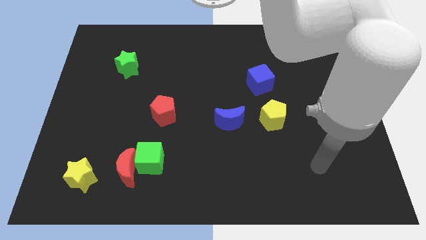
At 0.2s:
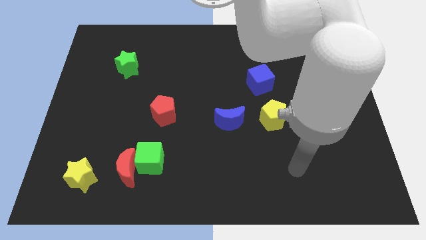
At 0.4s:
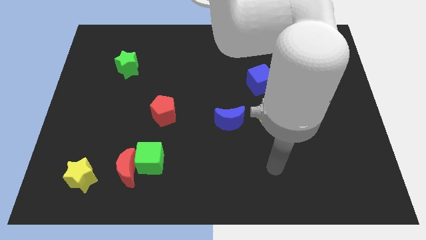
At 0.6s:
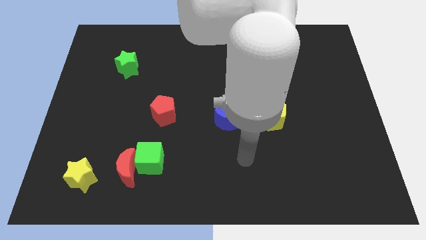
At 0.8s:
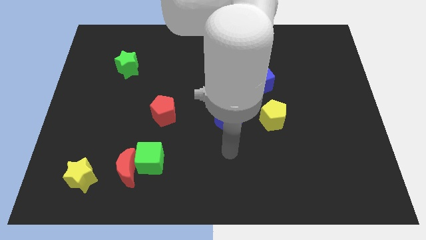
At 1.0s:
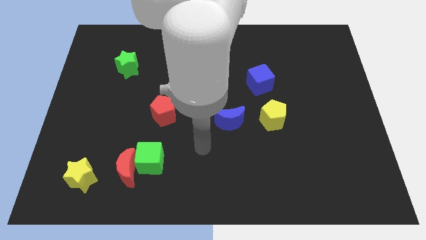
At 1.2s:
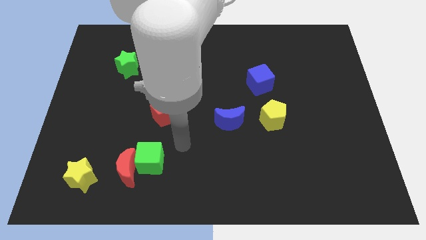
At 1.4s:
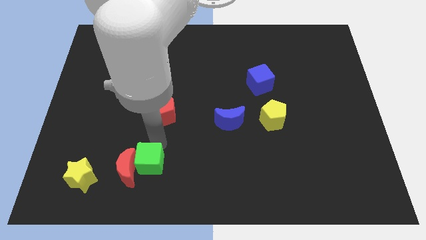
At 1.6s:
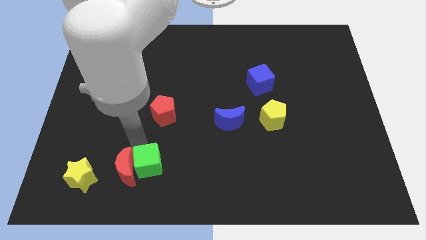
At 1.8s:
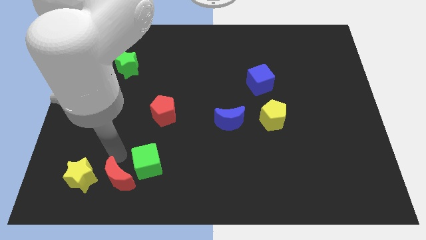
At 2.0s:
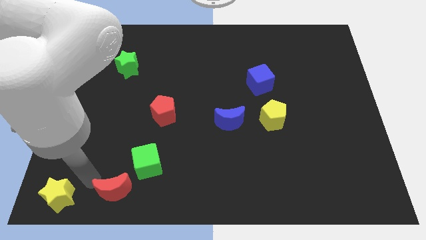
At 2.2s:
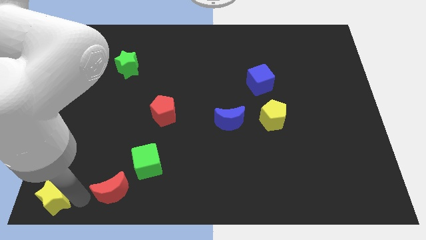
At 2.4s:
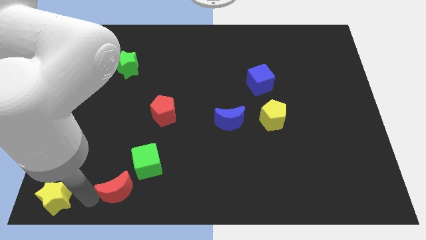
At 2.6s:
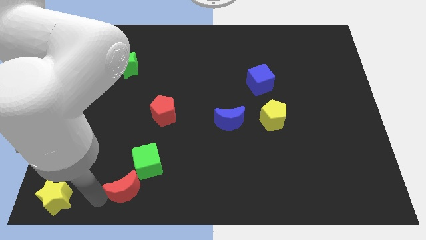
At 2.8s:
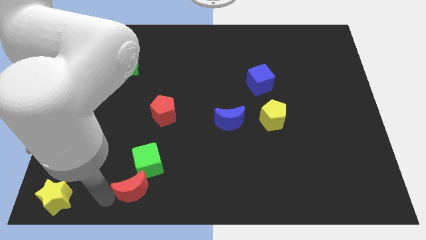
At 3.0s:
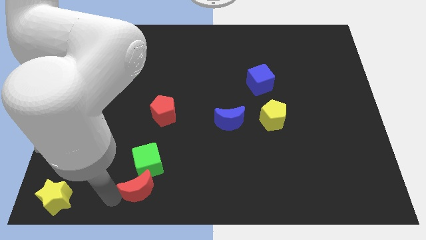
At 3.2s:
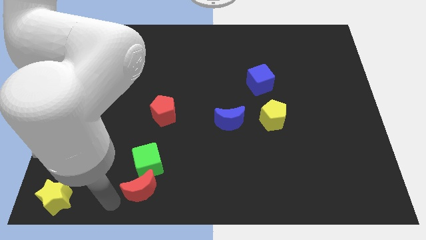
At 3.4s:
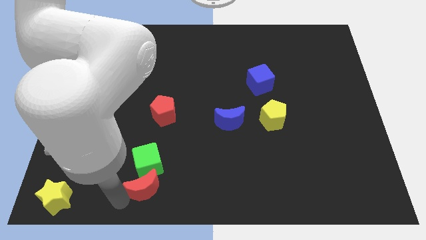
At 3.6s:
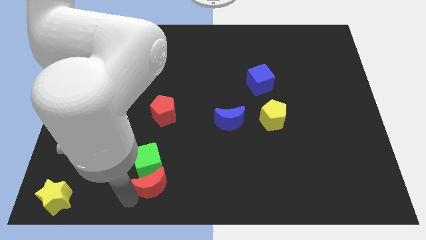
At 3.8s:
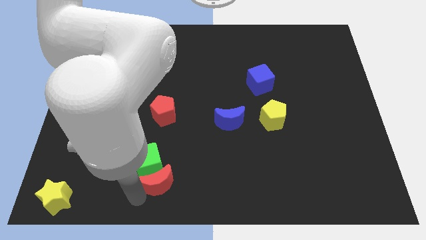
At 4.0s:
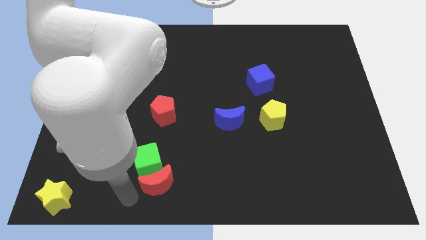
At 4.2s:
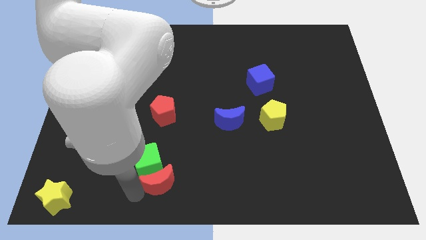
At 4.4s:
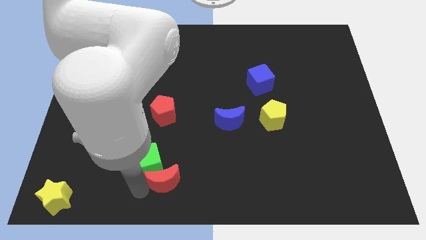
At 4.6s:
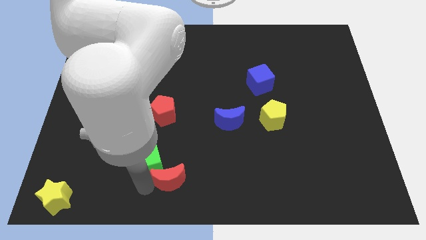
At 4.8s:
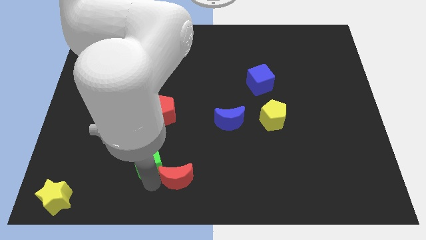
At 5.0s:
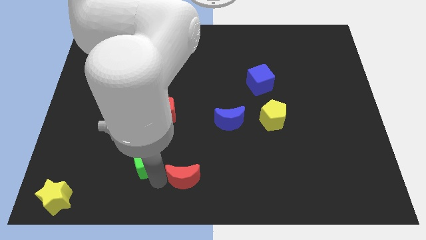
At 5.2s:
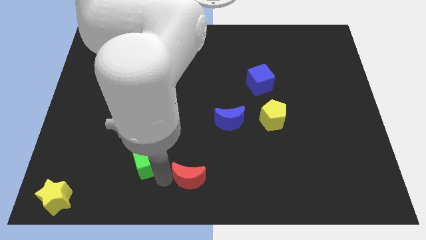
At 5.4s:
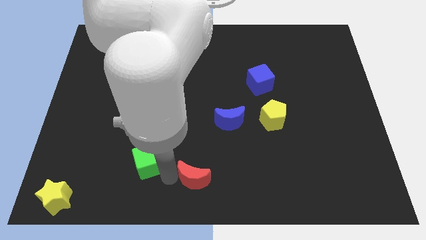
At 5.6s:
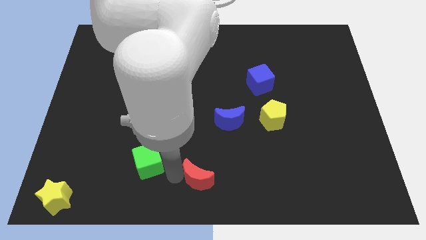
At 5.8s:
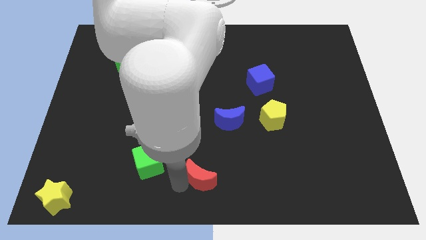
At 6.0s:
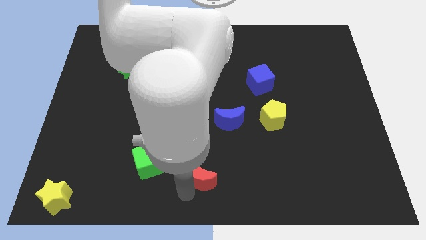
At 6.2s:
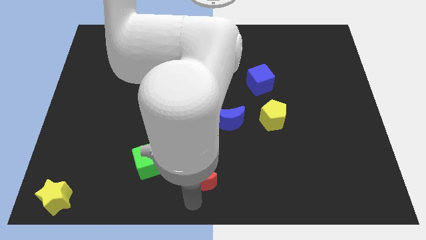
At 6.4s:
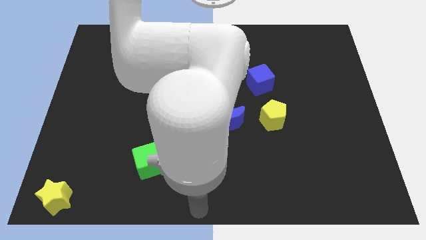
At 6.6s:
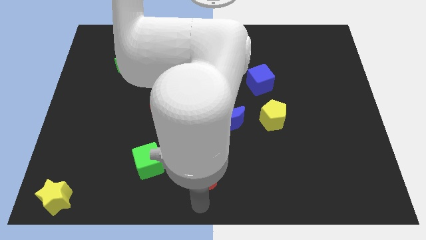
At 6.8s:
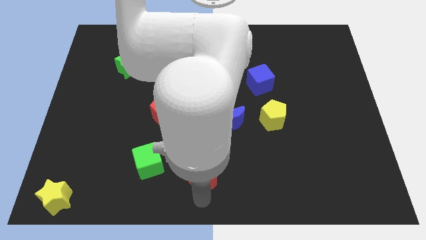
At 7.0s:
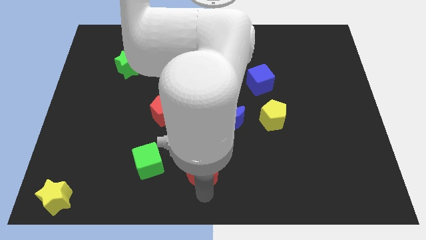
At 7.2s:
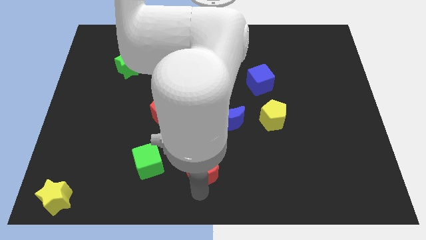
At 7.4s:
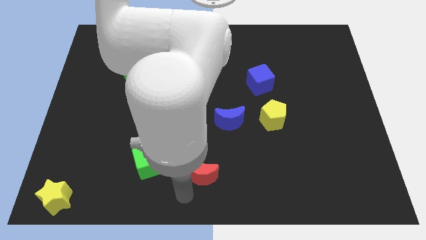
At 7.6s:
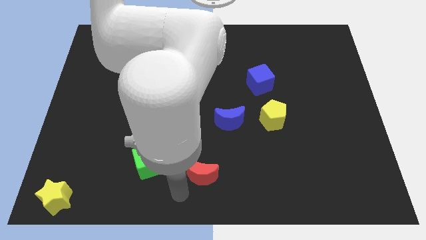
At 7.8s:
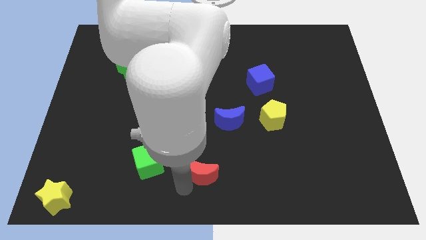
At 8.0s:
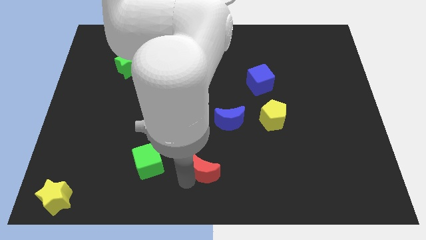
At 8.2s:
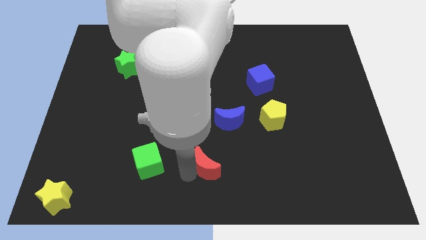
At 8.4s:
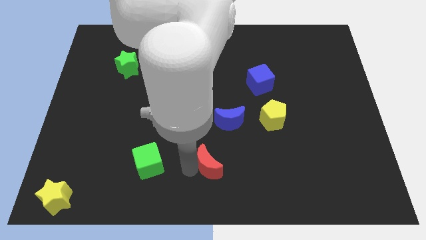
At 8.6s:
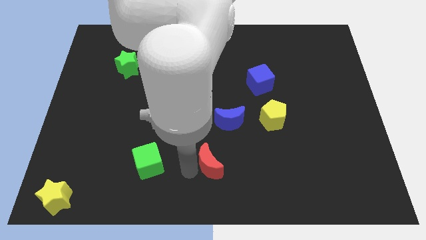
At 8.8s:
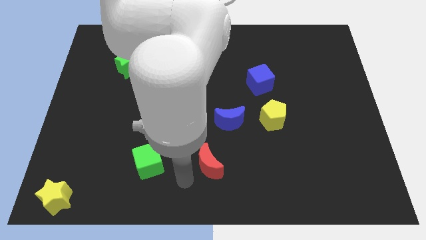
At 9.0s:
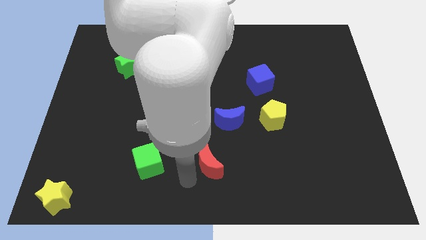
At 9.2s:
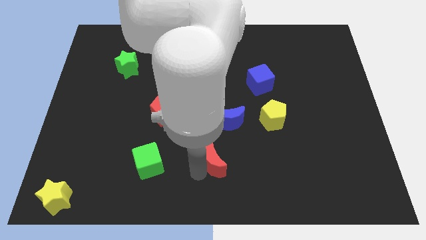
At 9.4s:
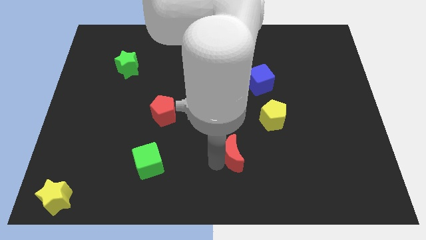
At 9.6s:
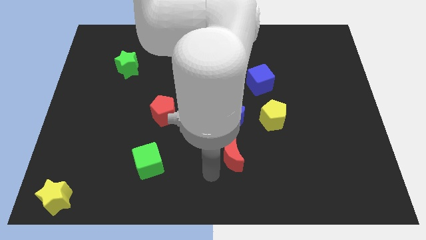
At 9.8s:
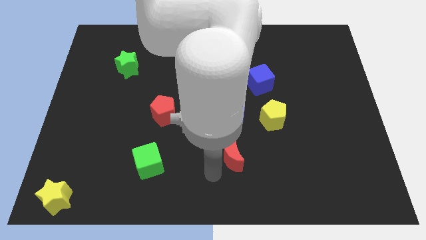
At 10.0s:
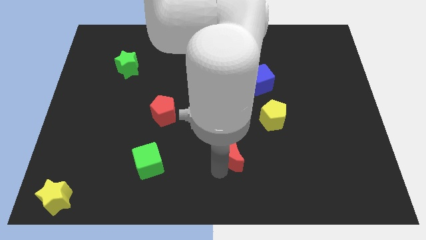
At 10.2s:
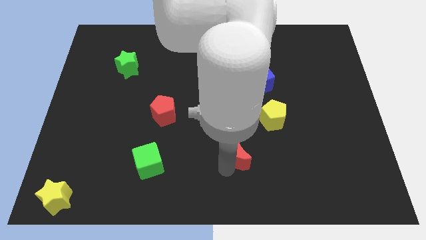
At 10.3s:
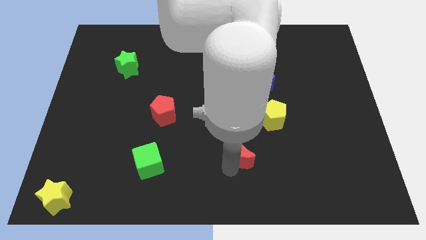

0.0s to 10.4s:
put the red moon diagonally down and to the left of the yellow pentagon

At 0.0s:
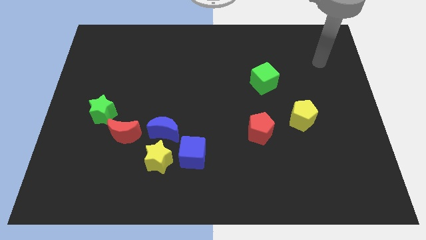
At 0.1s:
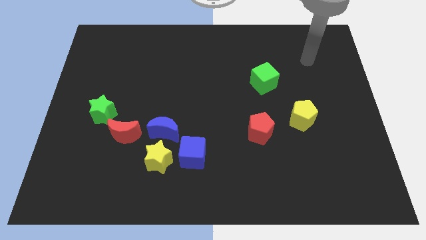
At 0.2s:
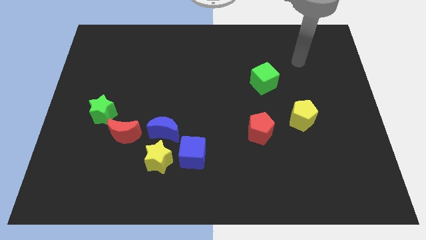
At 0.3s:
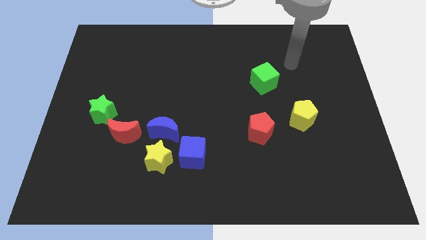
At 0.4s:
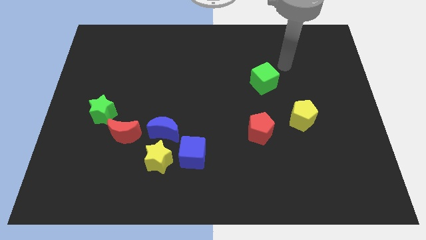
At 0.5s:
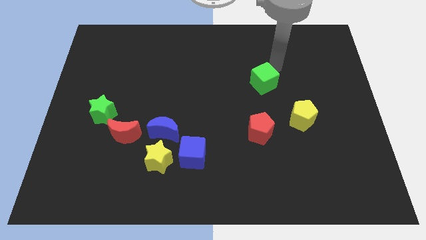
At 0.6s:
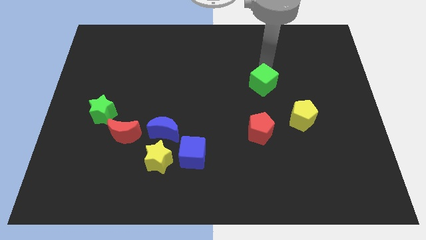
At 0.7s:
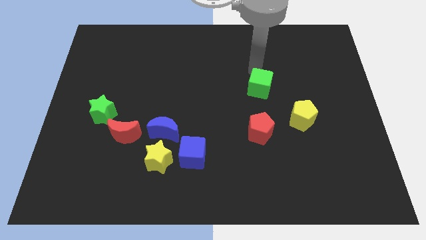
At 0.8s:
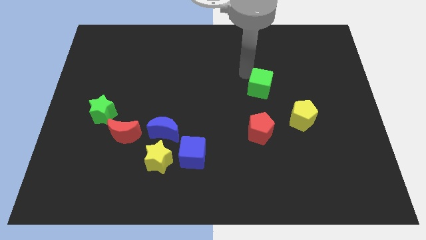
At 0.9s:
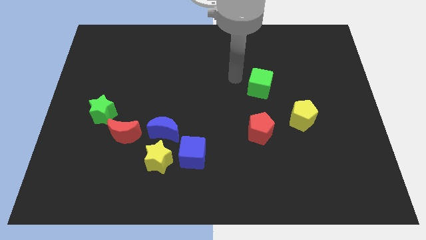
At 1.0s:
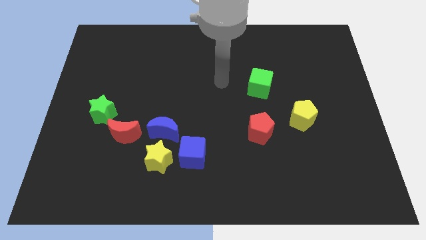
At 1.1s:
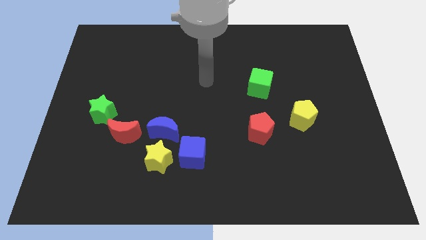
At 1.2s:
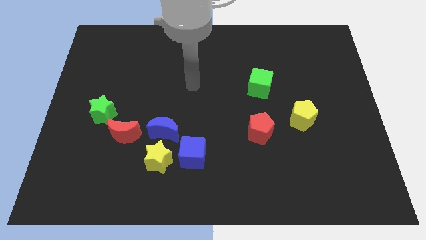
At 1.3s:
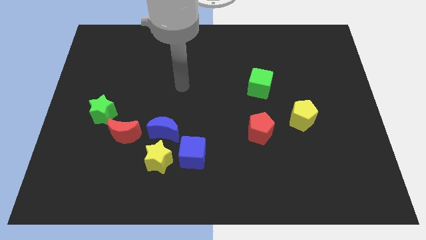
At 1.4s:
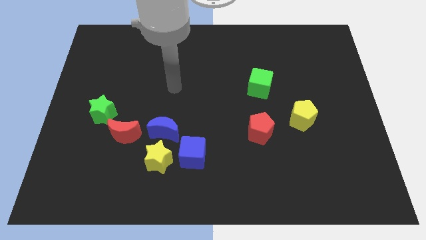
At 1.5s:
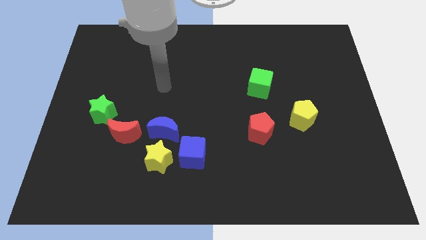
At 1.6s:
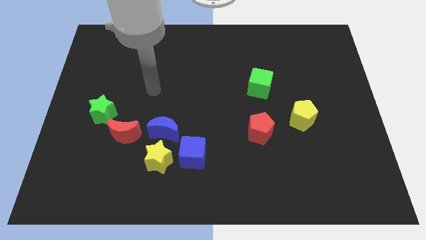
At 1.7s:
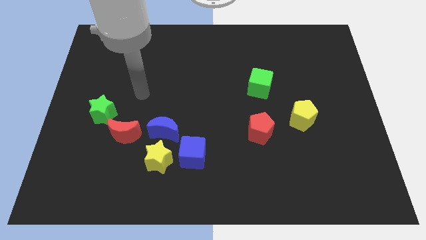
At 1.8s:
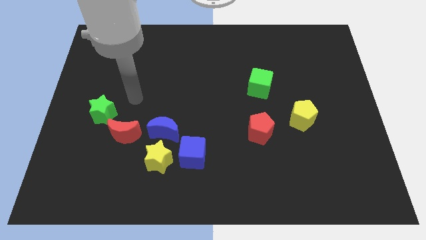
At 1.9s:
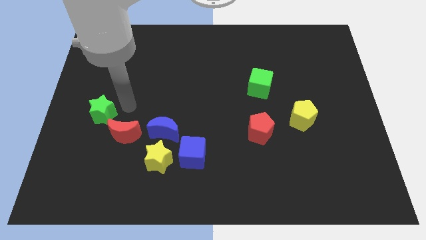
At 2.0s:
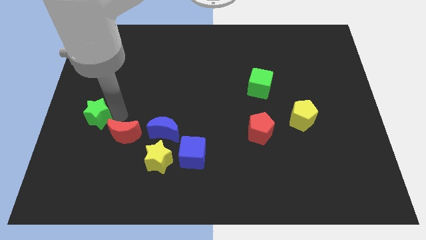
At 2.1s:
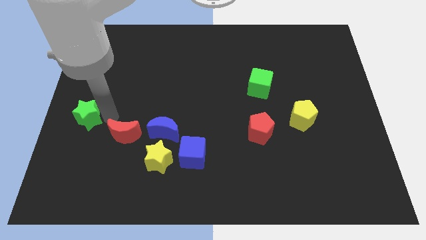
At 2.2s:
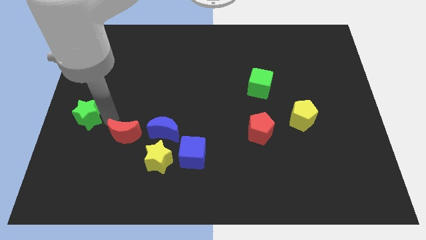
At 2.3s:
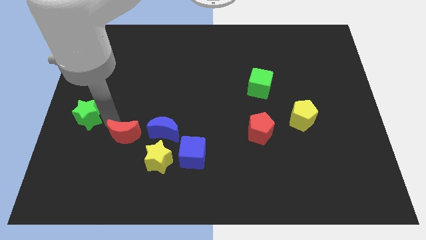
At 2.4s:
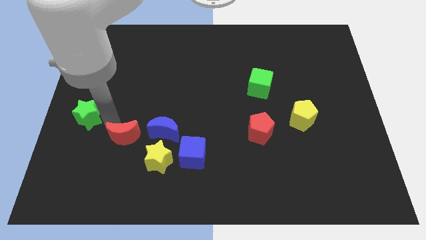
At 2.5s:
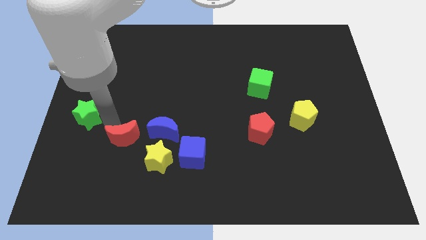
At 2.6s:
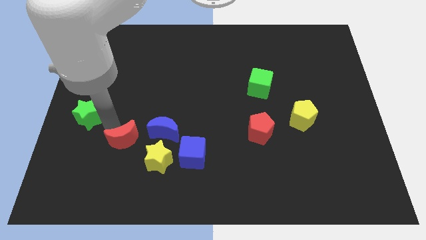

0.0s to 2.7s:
slide the red moon to the bottom left of the blue moon
